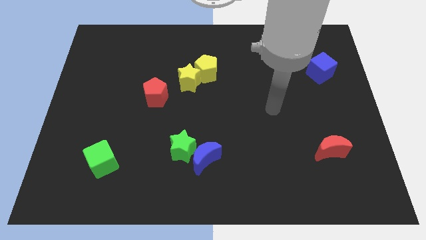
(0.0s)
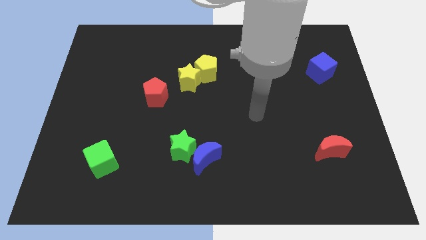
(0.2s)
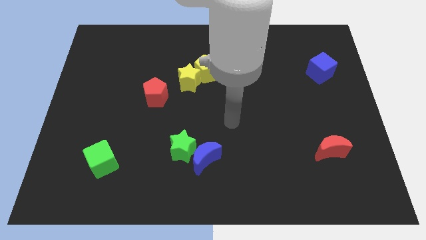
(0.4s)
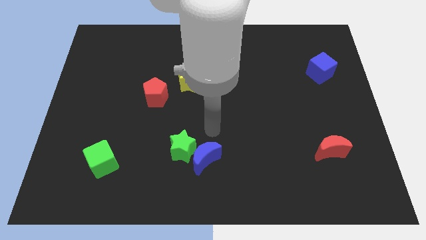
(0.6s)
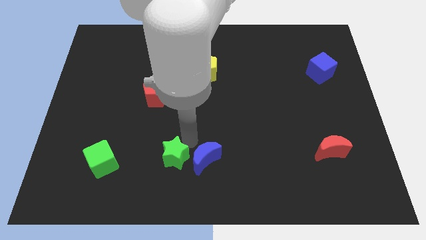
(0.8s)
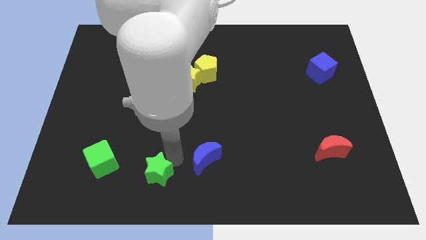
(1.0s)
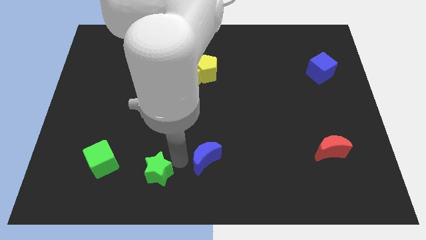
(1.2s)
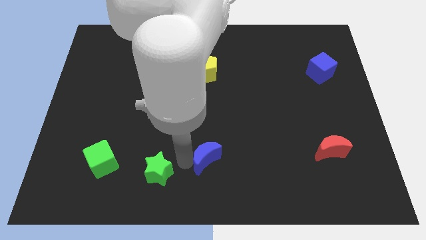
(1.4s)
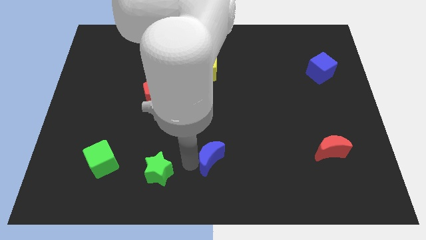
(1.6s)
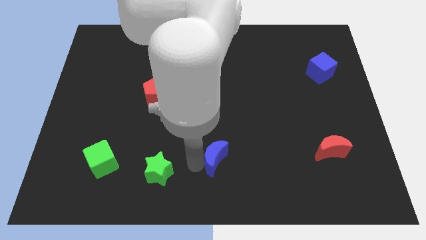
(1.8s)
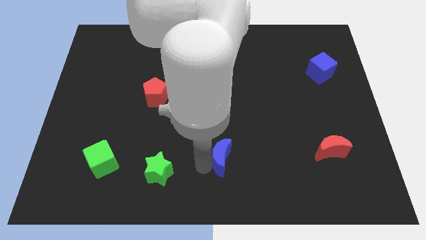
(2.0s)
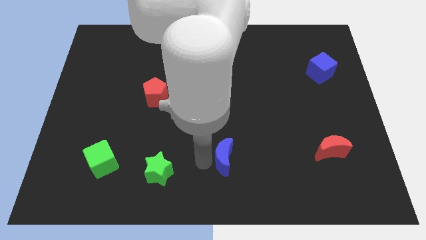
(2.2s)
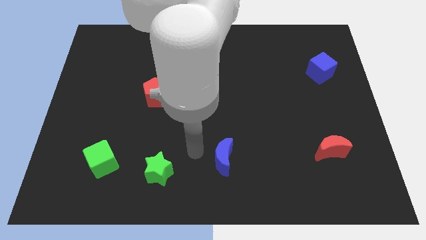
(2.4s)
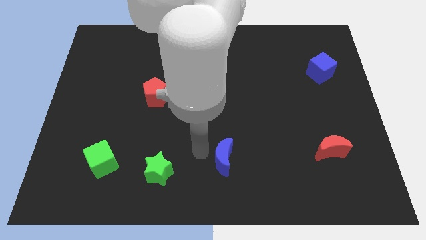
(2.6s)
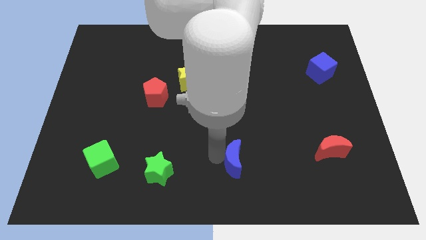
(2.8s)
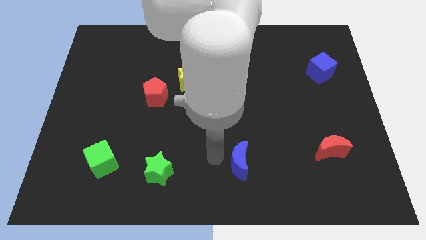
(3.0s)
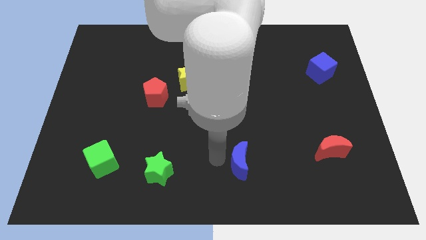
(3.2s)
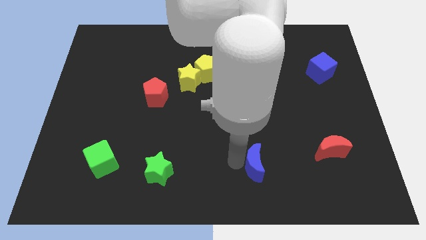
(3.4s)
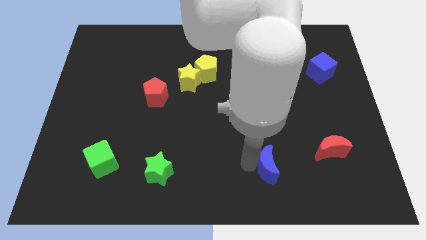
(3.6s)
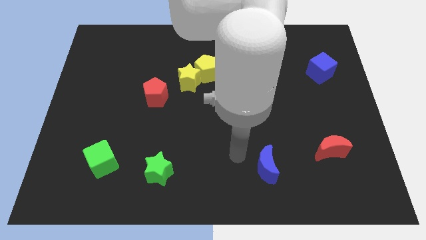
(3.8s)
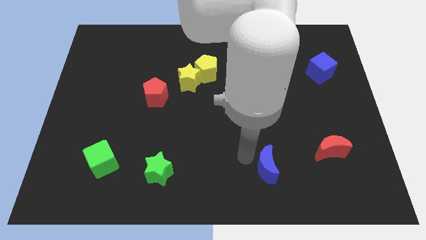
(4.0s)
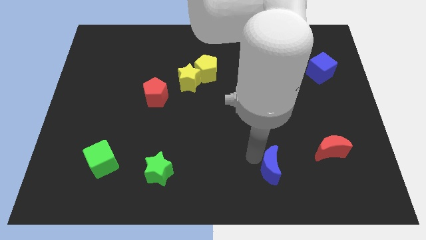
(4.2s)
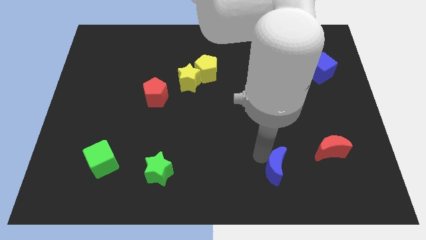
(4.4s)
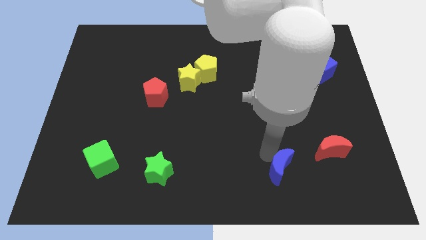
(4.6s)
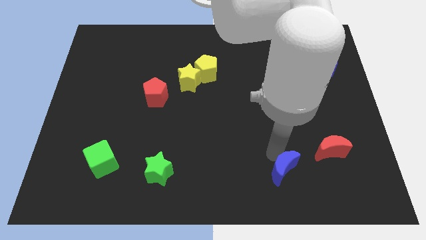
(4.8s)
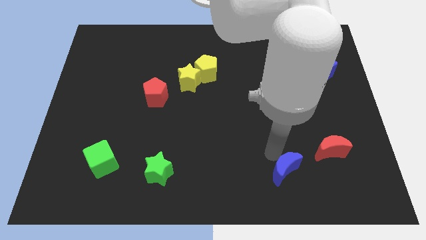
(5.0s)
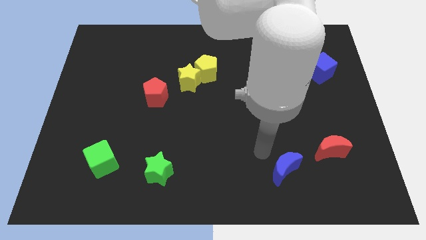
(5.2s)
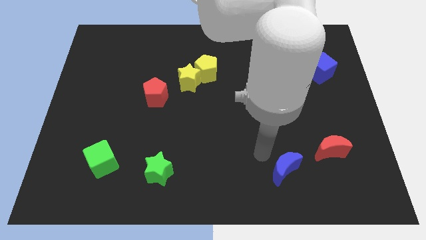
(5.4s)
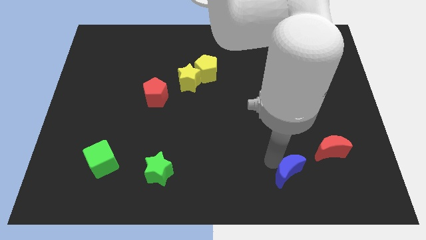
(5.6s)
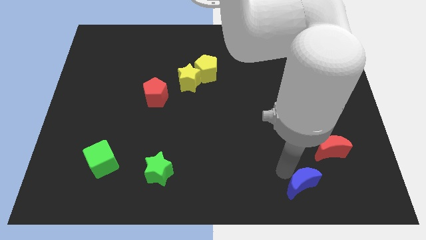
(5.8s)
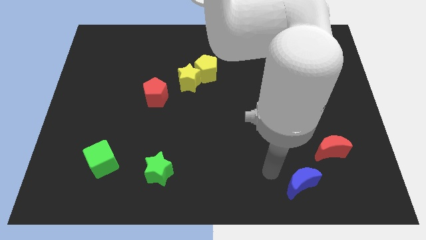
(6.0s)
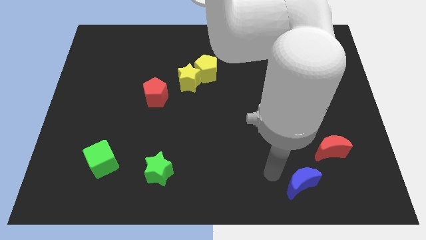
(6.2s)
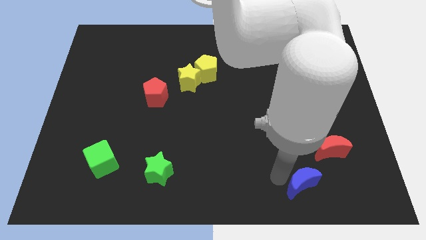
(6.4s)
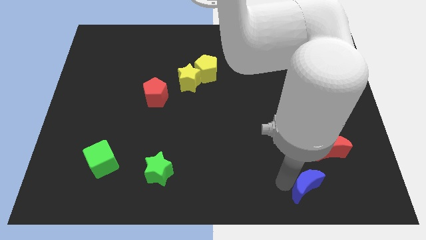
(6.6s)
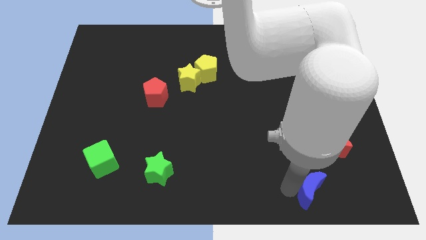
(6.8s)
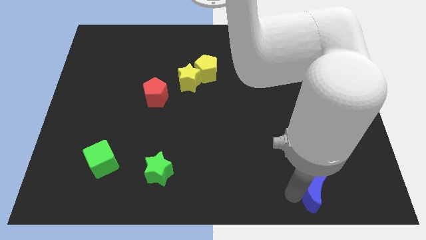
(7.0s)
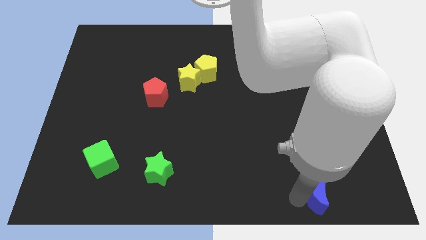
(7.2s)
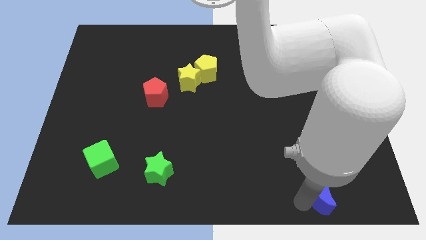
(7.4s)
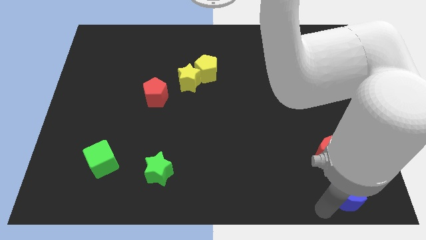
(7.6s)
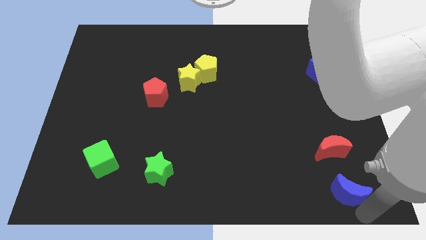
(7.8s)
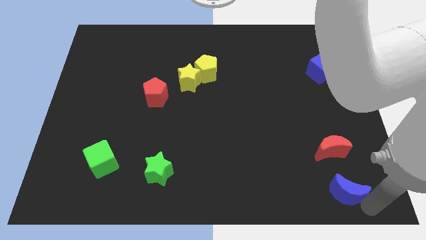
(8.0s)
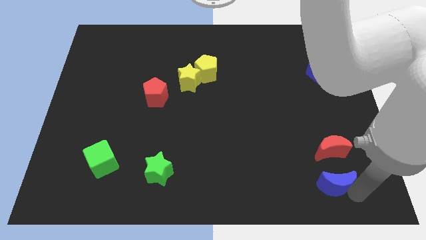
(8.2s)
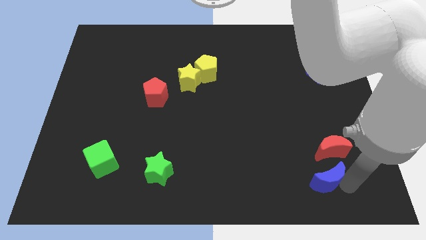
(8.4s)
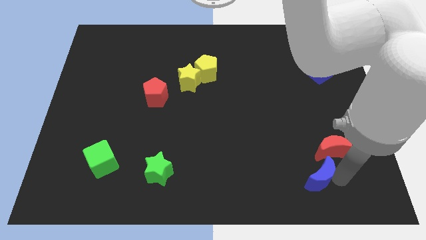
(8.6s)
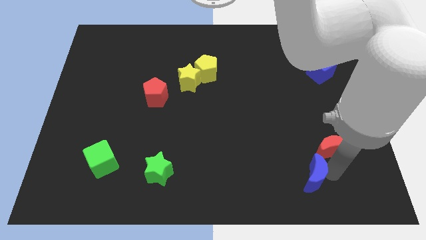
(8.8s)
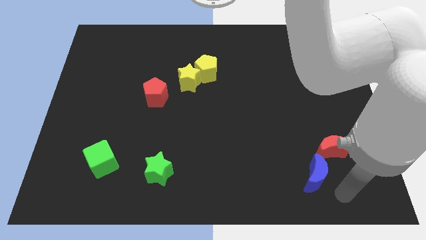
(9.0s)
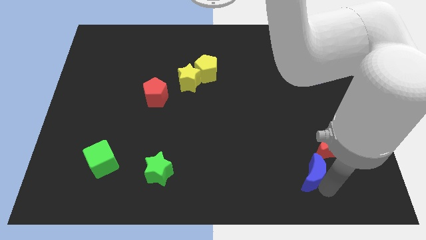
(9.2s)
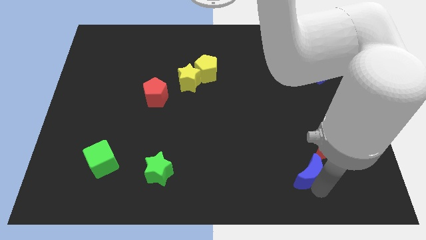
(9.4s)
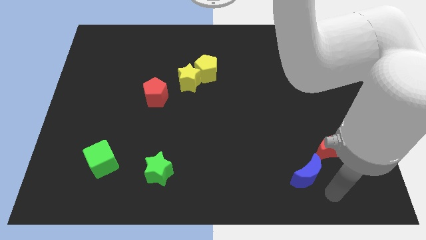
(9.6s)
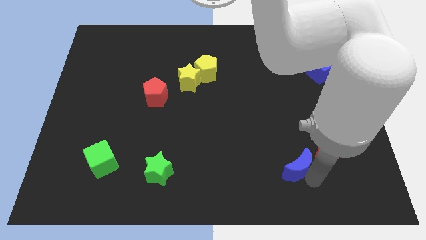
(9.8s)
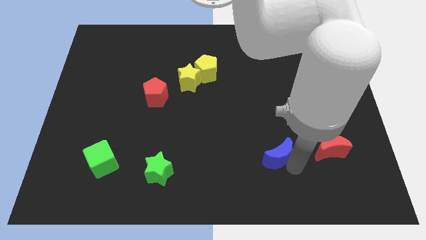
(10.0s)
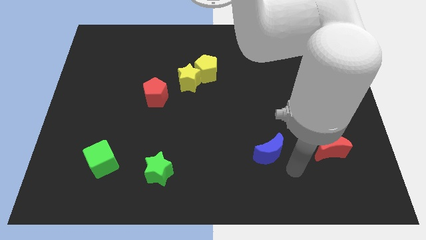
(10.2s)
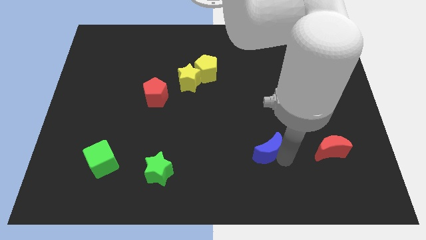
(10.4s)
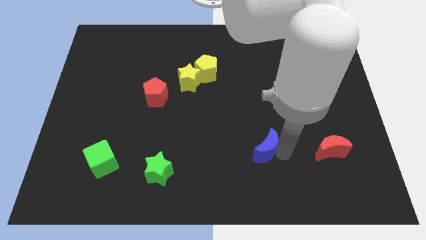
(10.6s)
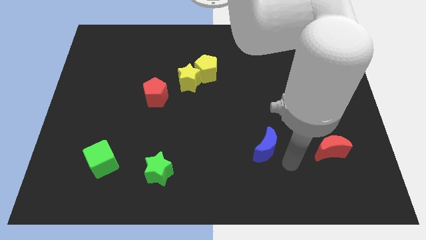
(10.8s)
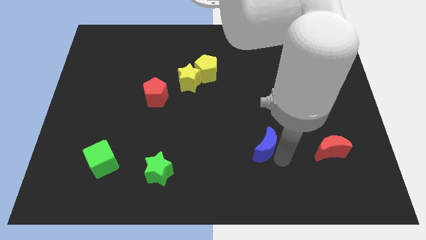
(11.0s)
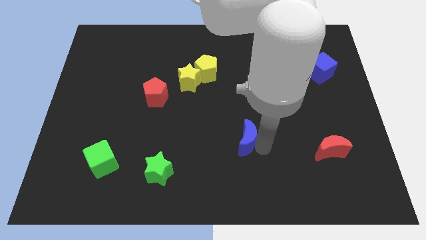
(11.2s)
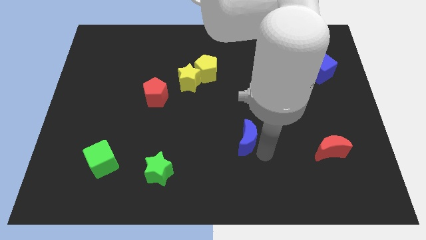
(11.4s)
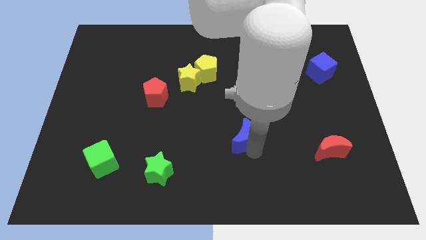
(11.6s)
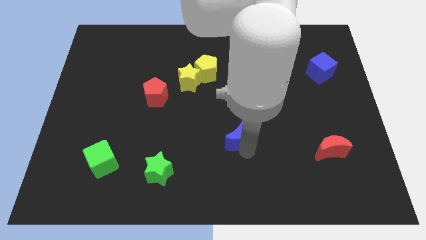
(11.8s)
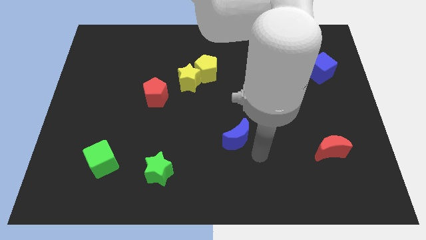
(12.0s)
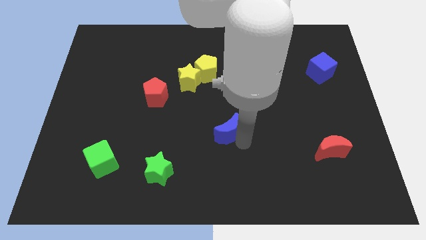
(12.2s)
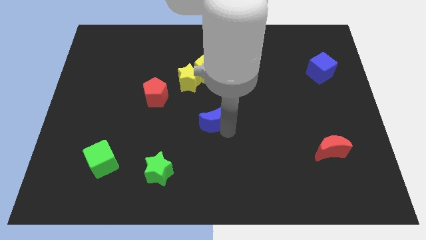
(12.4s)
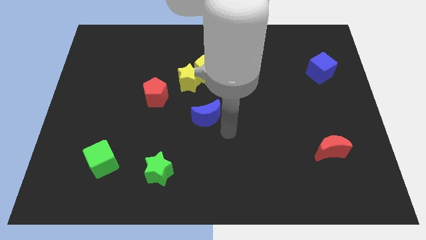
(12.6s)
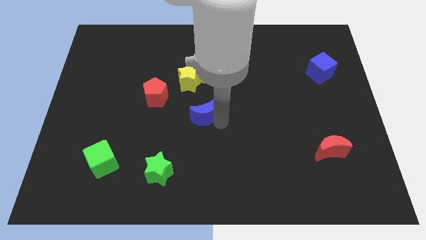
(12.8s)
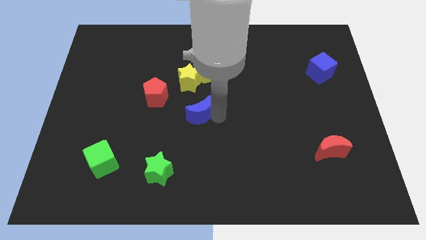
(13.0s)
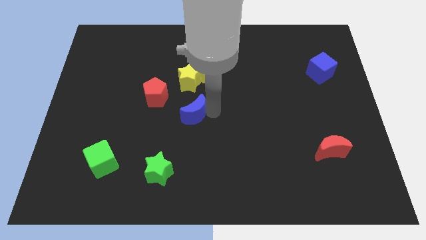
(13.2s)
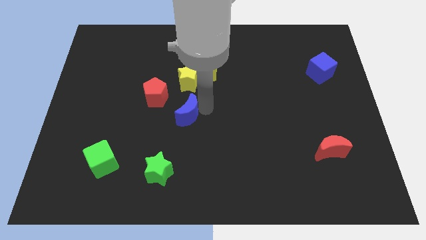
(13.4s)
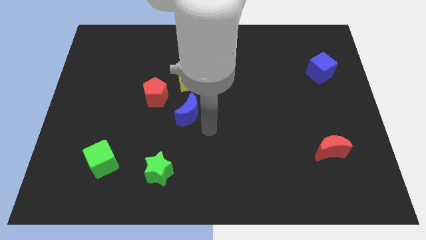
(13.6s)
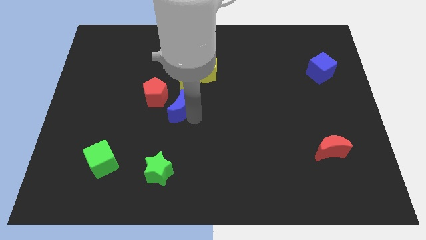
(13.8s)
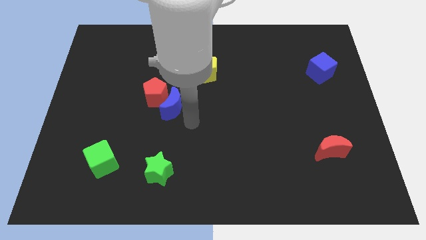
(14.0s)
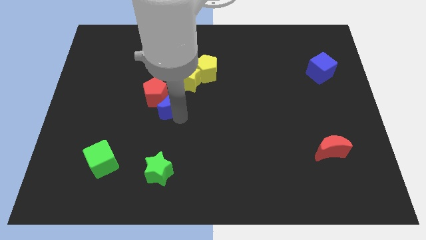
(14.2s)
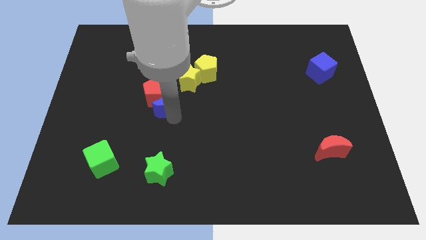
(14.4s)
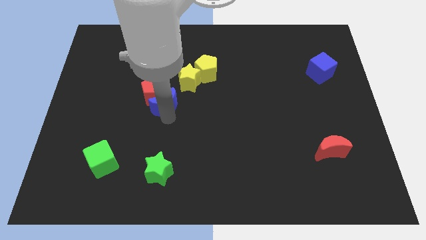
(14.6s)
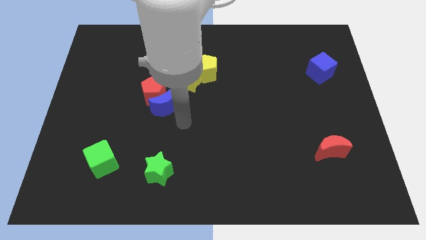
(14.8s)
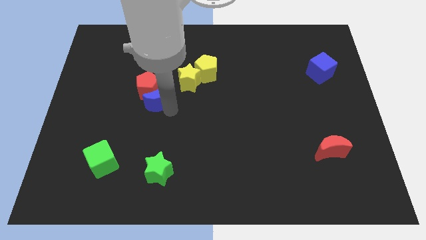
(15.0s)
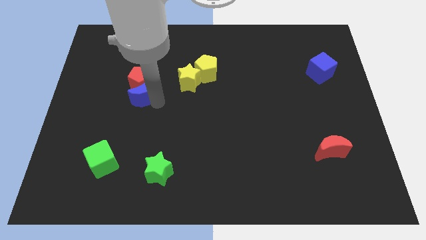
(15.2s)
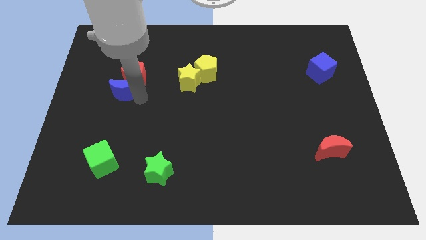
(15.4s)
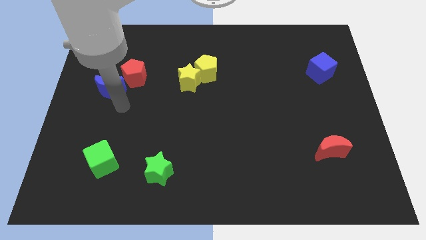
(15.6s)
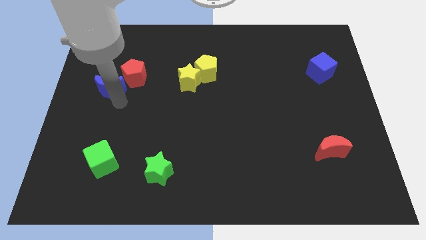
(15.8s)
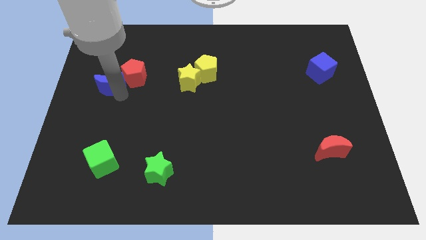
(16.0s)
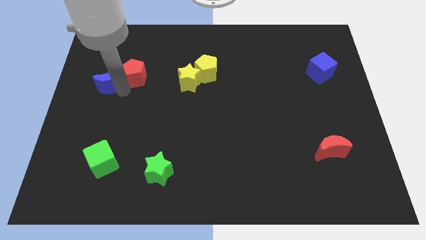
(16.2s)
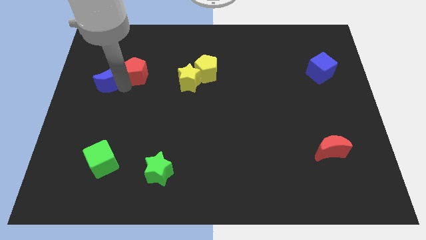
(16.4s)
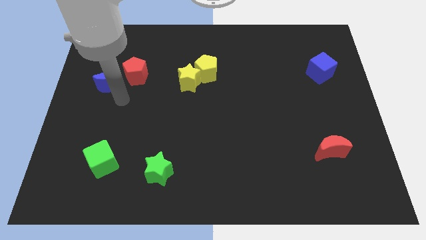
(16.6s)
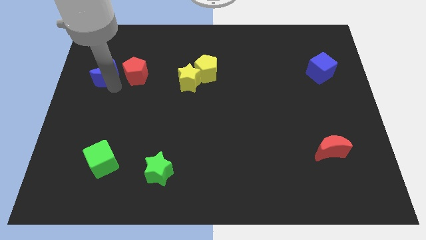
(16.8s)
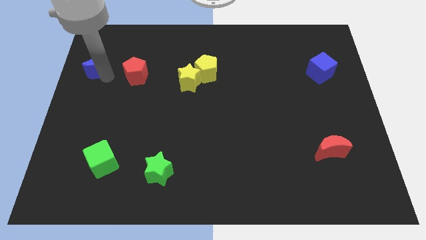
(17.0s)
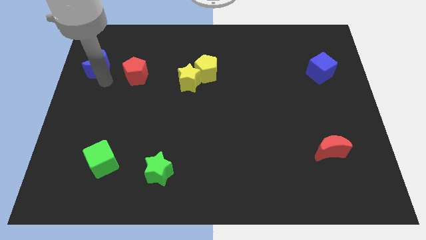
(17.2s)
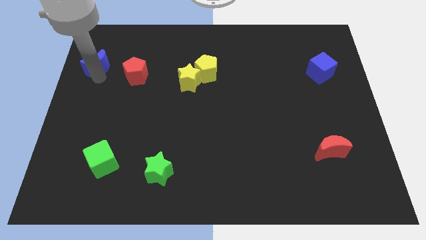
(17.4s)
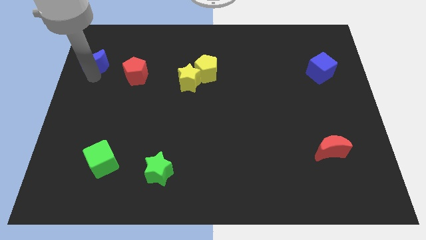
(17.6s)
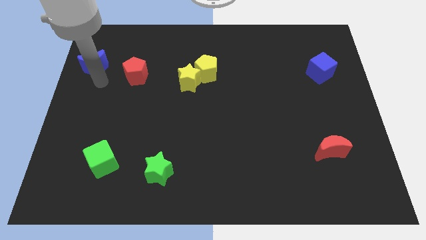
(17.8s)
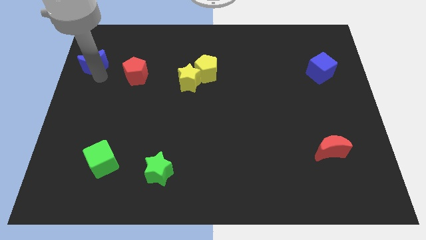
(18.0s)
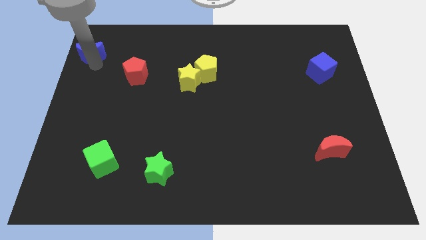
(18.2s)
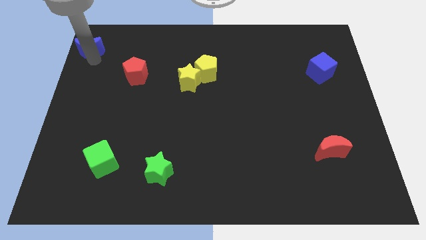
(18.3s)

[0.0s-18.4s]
move the blue moon to the upper left corner
